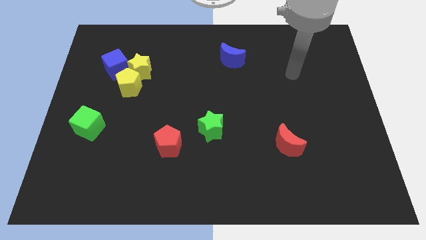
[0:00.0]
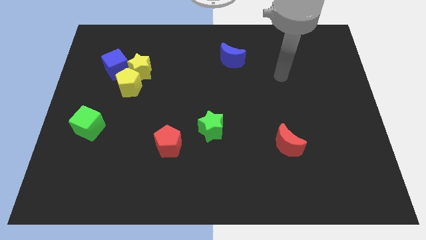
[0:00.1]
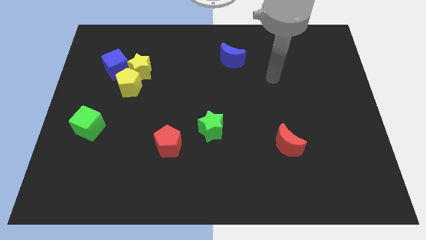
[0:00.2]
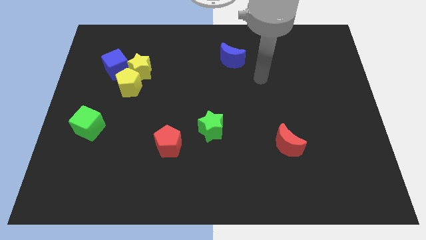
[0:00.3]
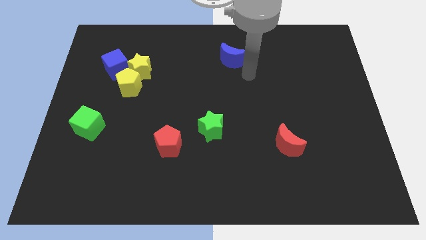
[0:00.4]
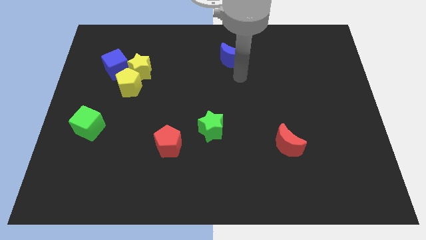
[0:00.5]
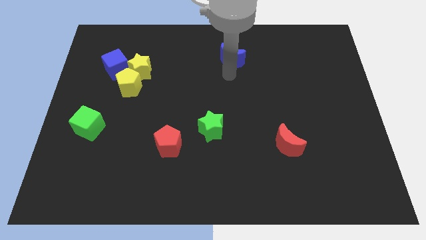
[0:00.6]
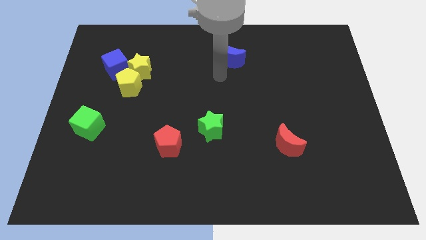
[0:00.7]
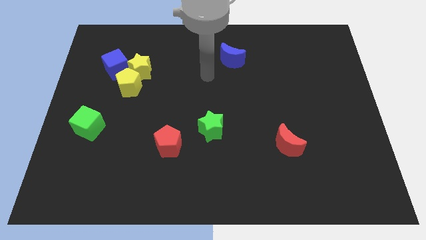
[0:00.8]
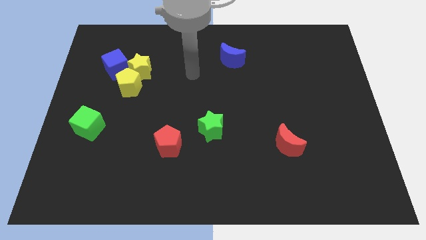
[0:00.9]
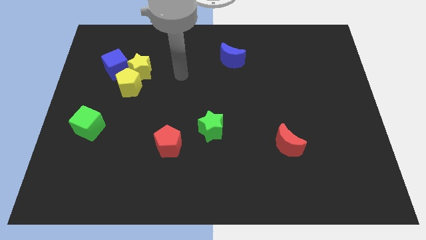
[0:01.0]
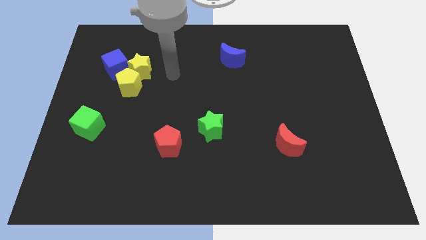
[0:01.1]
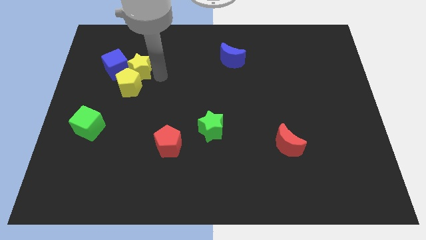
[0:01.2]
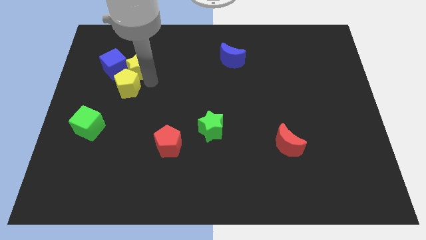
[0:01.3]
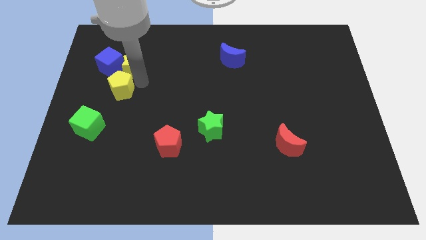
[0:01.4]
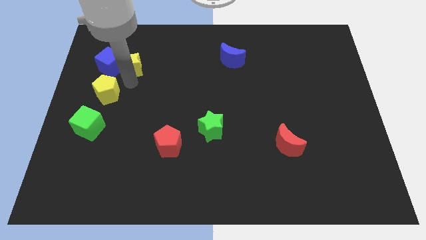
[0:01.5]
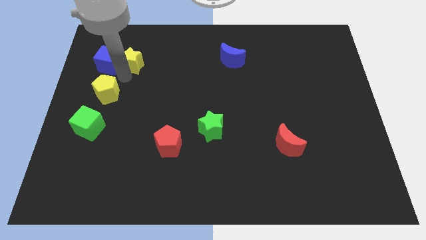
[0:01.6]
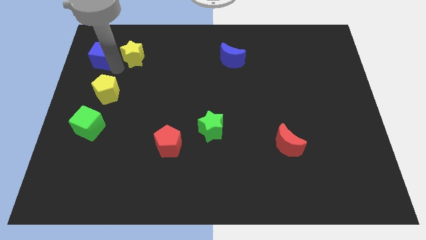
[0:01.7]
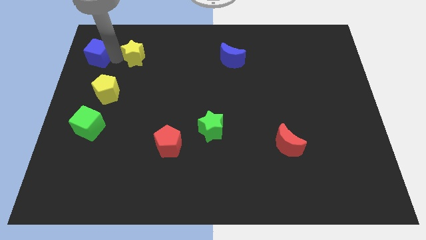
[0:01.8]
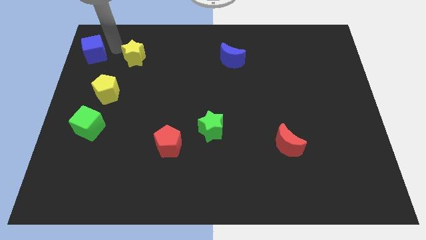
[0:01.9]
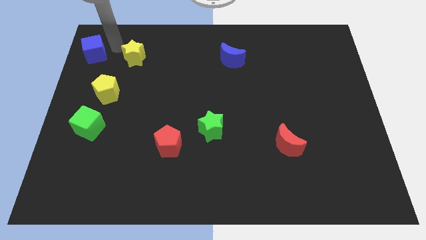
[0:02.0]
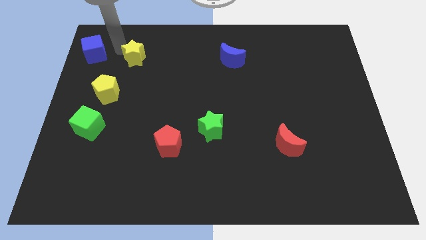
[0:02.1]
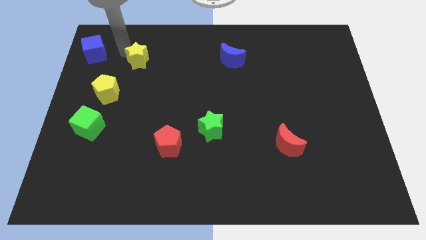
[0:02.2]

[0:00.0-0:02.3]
pull the yellow star apart from the yellow pentagon and blue cube

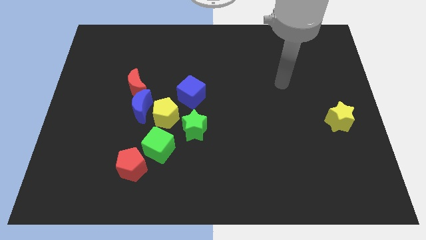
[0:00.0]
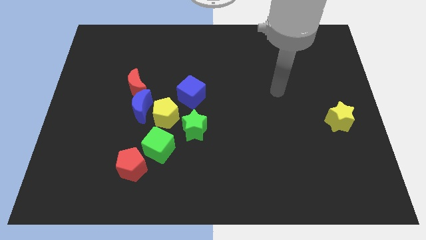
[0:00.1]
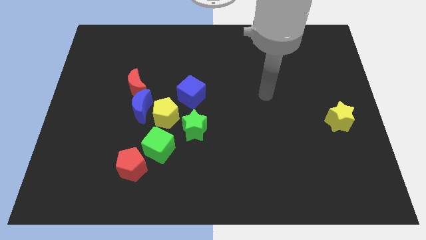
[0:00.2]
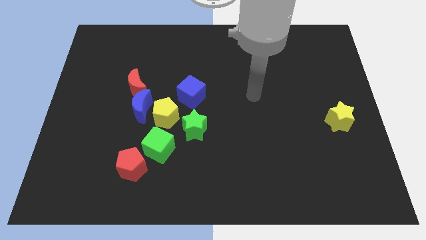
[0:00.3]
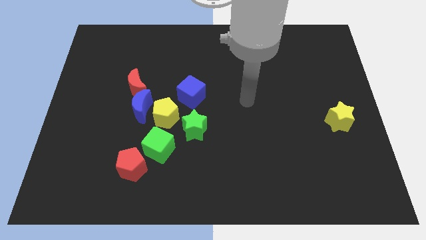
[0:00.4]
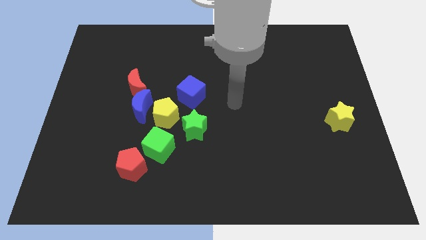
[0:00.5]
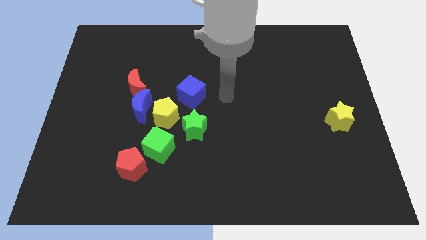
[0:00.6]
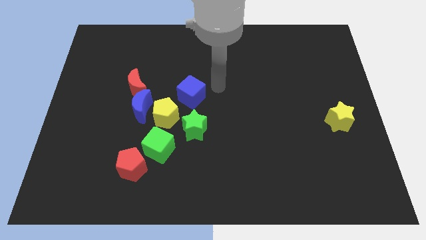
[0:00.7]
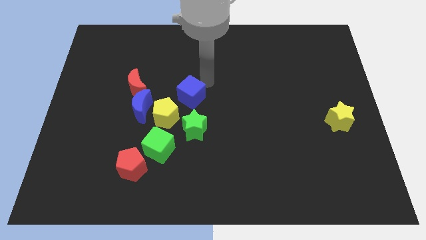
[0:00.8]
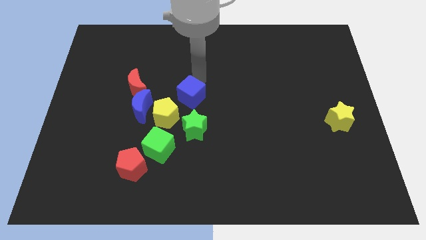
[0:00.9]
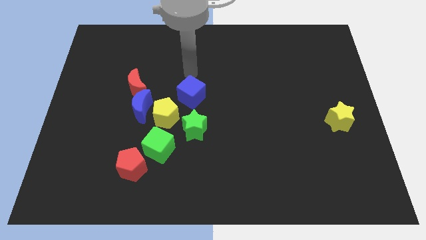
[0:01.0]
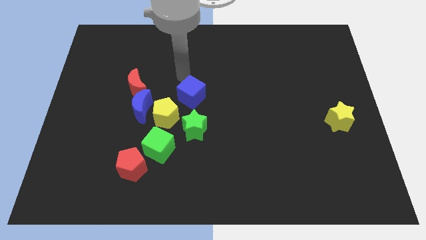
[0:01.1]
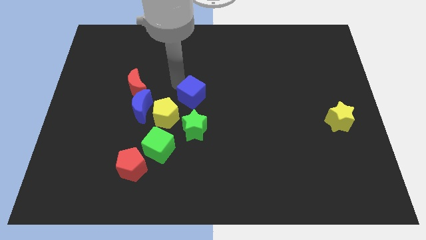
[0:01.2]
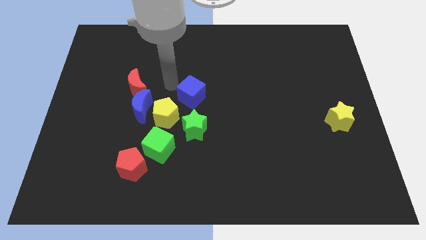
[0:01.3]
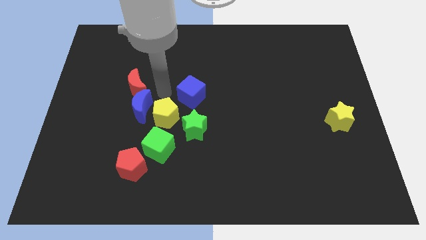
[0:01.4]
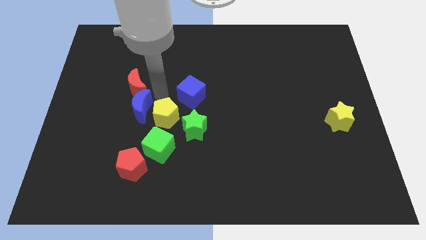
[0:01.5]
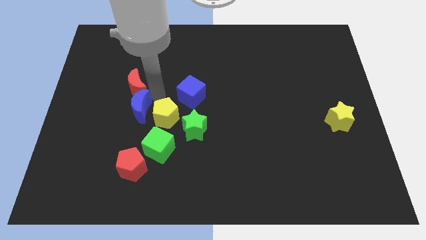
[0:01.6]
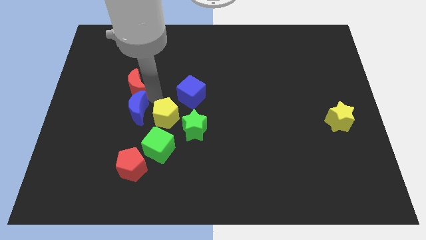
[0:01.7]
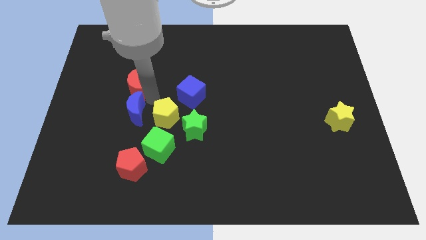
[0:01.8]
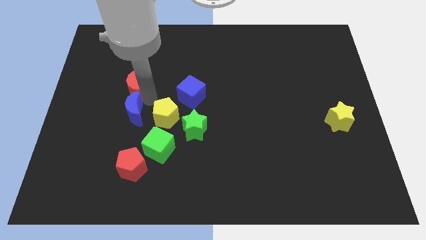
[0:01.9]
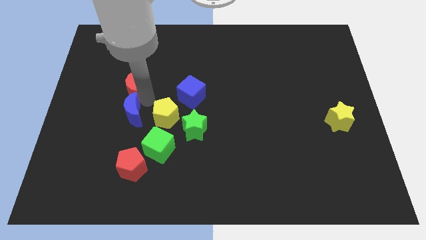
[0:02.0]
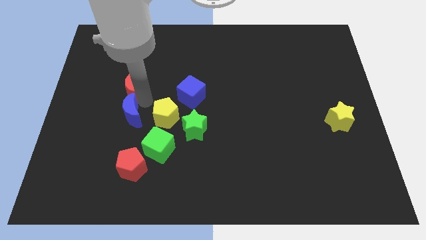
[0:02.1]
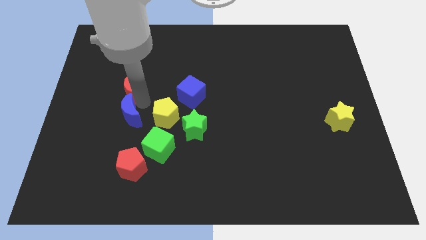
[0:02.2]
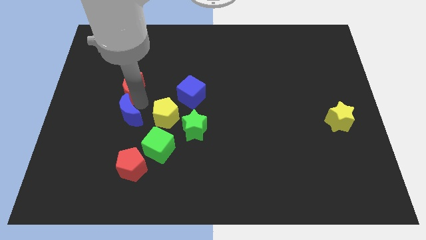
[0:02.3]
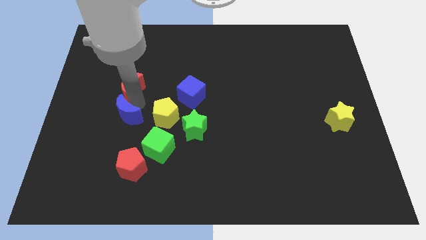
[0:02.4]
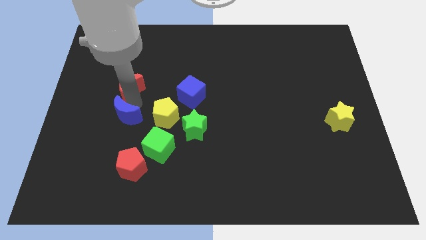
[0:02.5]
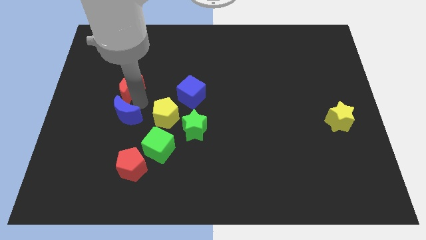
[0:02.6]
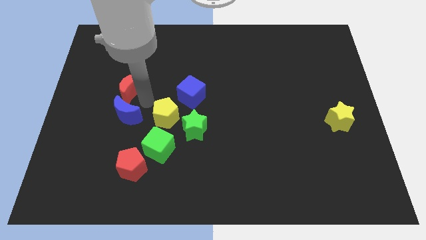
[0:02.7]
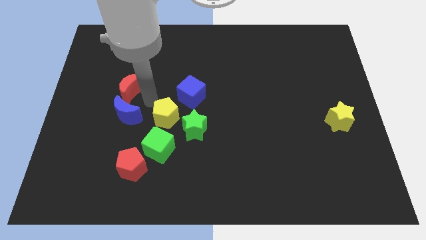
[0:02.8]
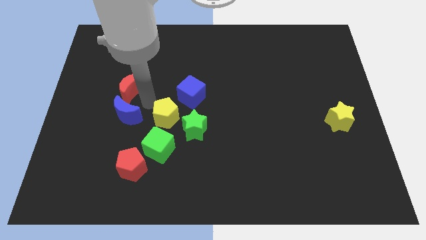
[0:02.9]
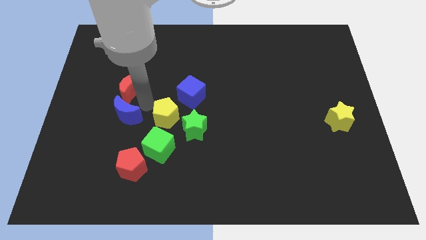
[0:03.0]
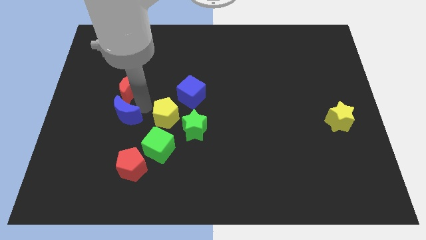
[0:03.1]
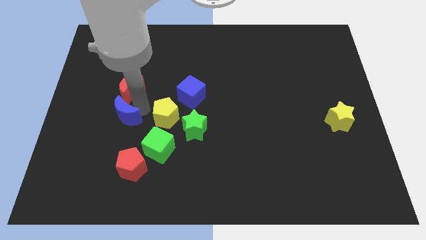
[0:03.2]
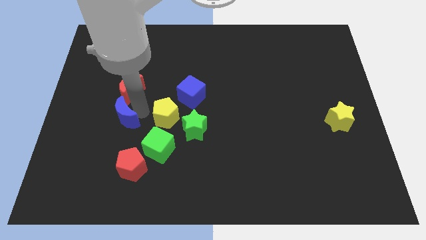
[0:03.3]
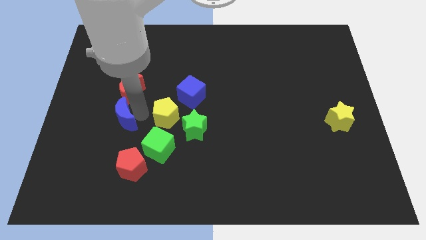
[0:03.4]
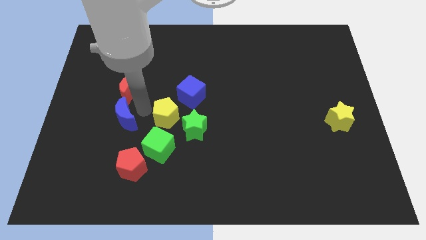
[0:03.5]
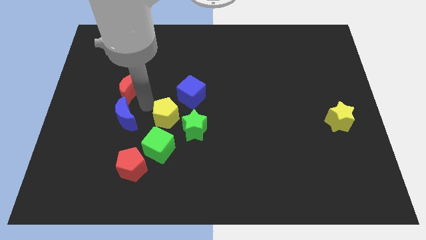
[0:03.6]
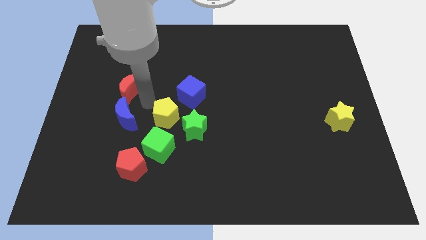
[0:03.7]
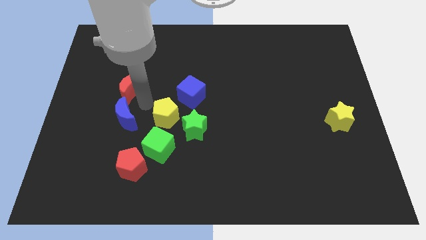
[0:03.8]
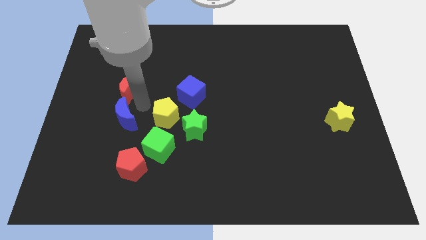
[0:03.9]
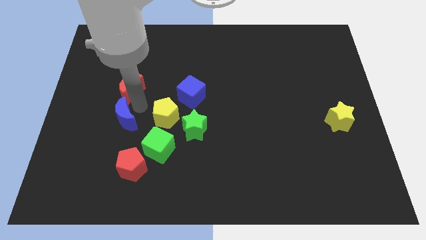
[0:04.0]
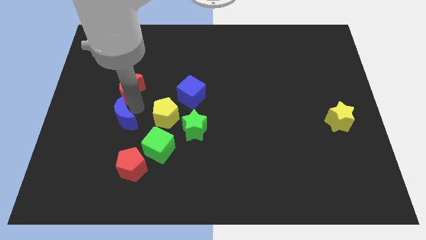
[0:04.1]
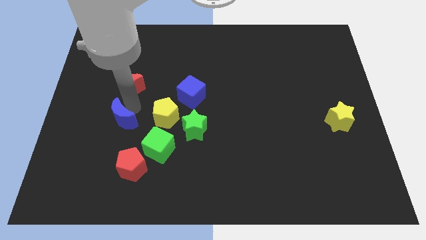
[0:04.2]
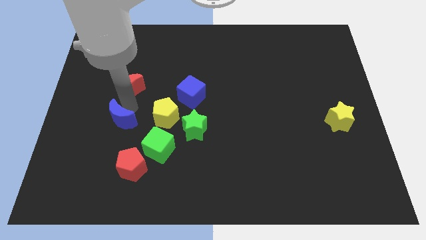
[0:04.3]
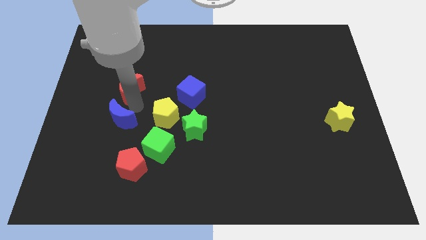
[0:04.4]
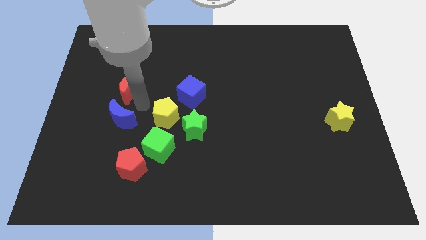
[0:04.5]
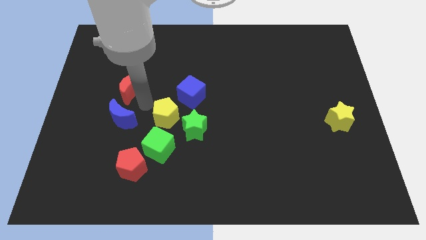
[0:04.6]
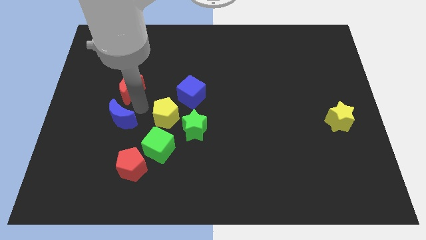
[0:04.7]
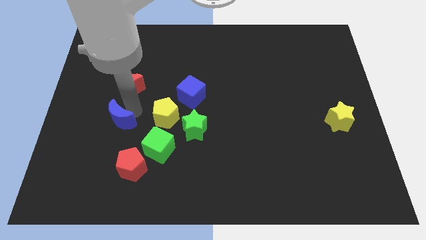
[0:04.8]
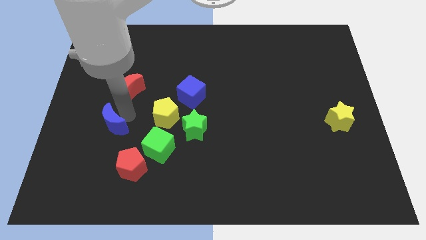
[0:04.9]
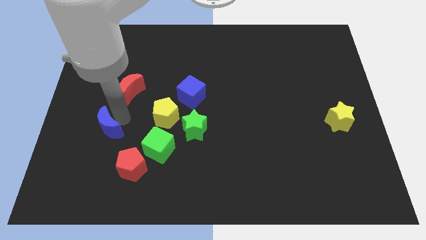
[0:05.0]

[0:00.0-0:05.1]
pull the blue moon apart from the yellow pentagon and red moon

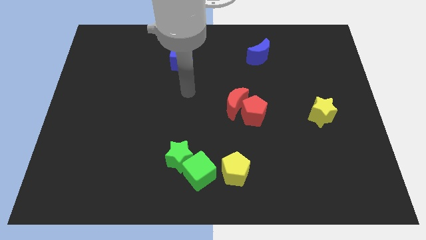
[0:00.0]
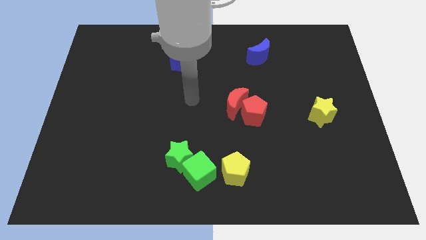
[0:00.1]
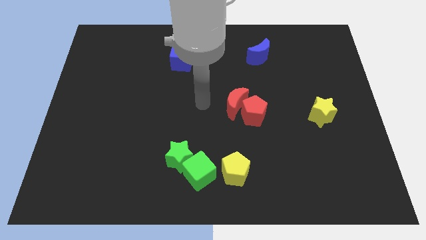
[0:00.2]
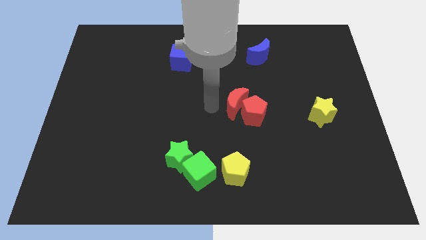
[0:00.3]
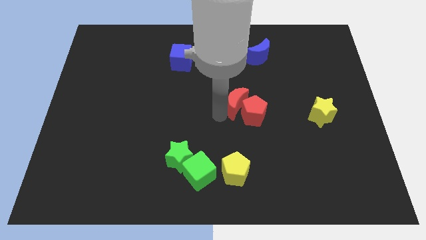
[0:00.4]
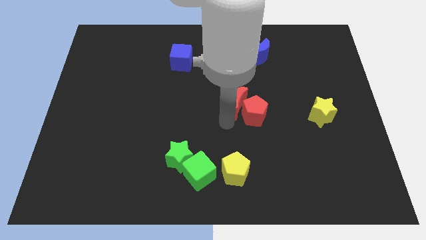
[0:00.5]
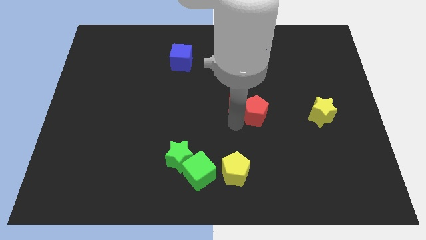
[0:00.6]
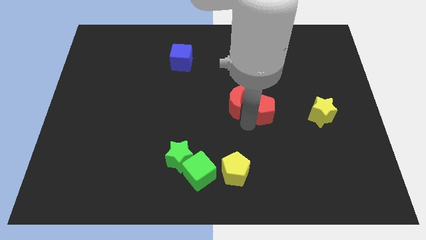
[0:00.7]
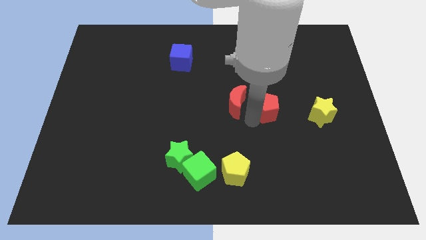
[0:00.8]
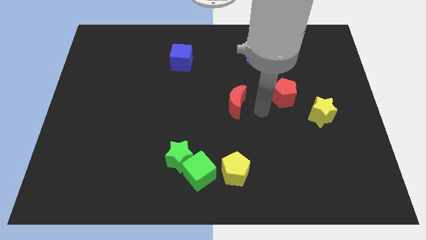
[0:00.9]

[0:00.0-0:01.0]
pull the red moon apart from the red pentagon

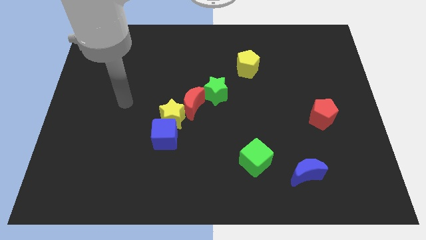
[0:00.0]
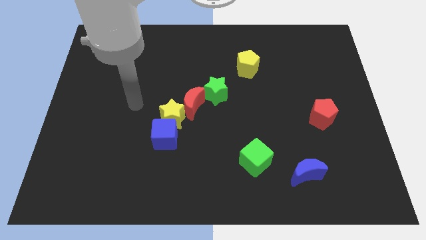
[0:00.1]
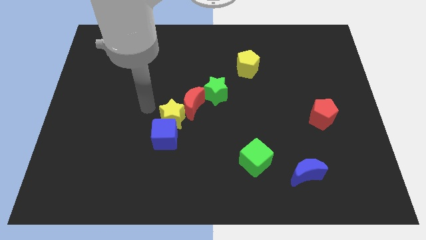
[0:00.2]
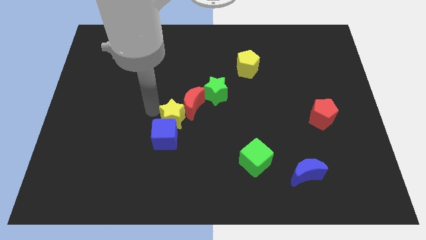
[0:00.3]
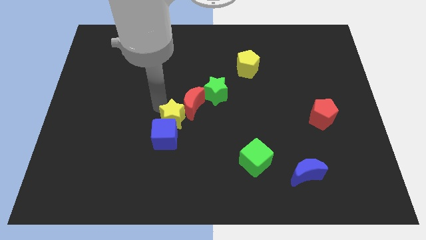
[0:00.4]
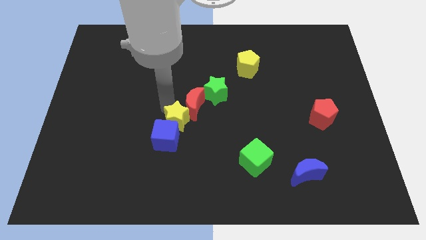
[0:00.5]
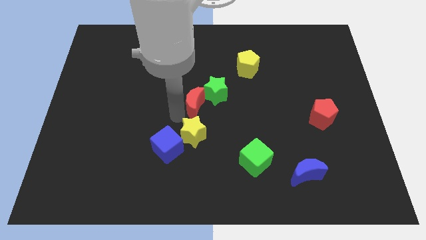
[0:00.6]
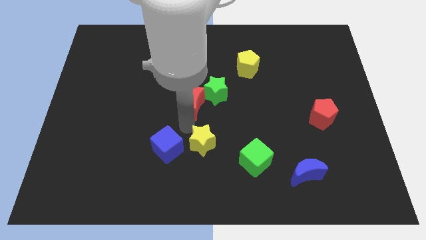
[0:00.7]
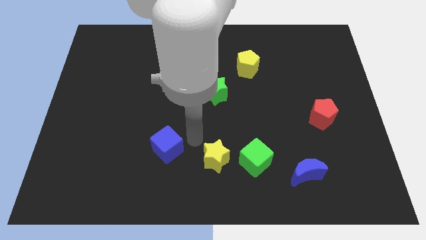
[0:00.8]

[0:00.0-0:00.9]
move the blue cube away from the yellow star

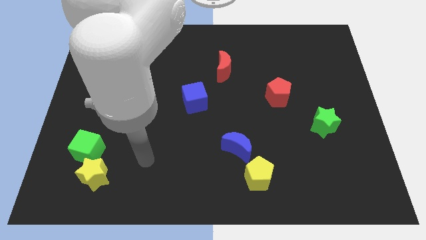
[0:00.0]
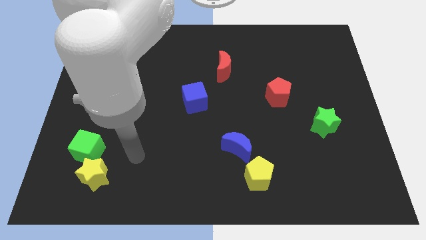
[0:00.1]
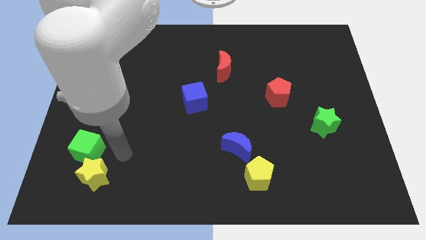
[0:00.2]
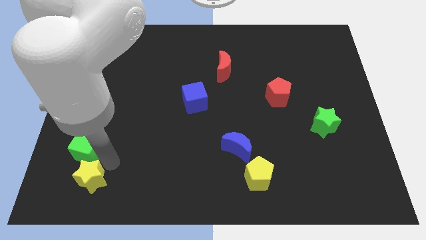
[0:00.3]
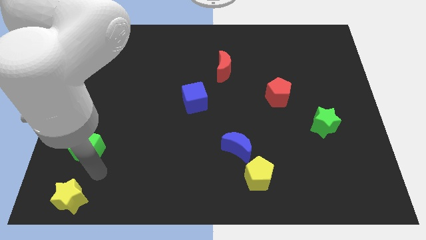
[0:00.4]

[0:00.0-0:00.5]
pull the green cube apart from the yellow star
